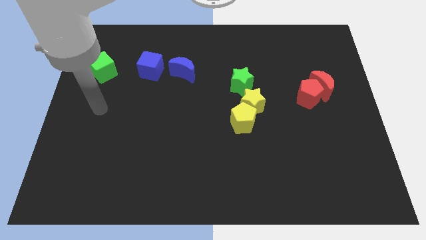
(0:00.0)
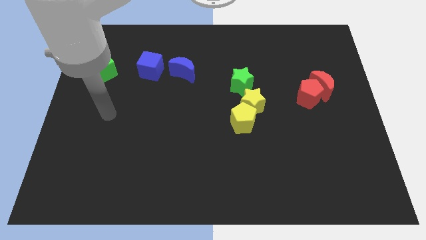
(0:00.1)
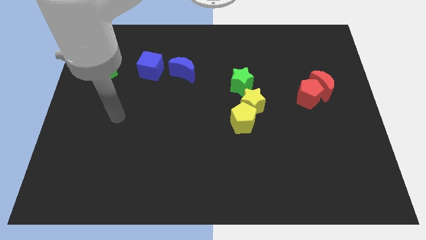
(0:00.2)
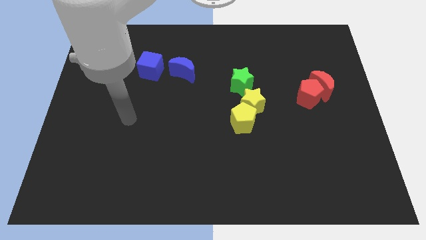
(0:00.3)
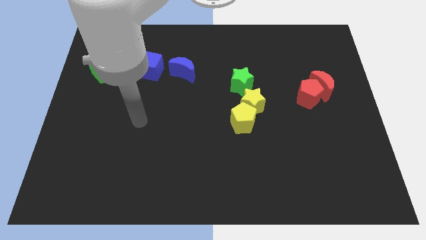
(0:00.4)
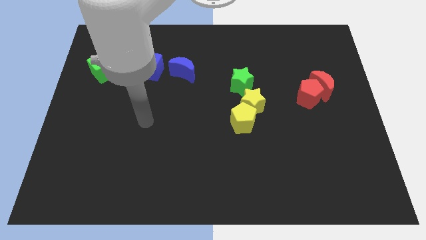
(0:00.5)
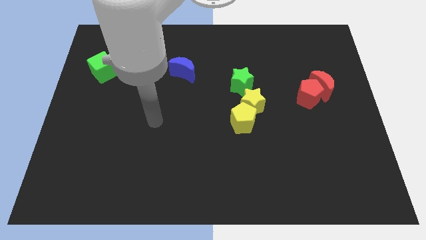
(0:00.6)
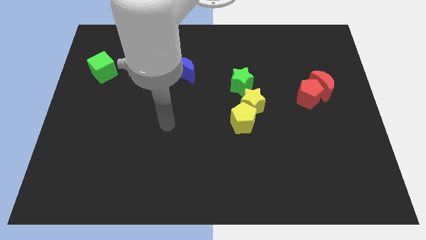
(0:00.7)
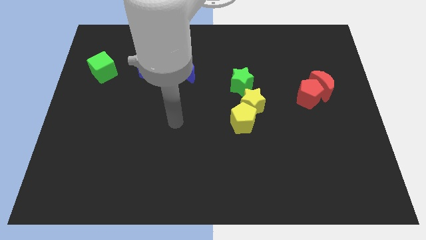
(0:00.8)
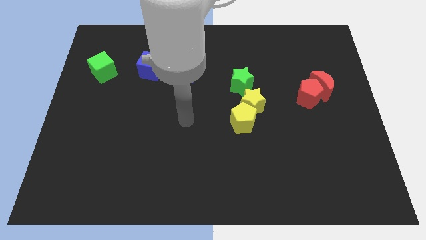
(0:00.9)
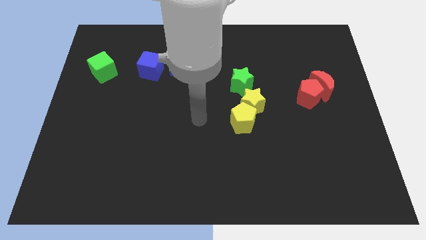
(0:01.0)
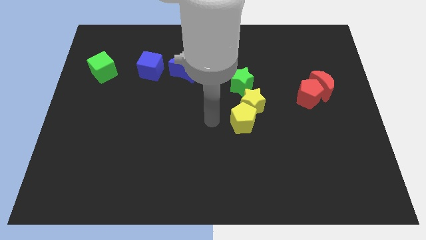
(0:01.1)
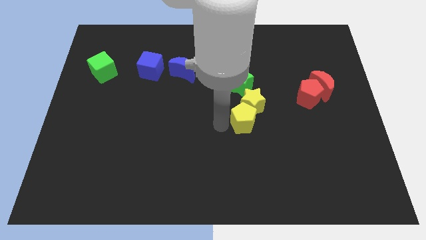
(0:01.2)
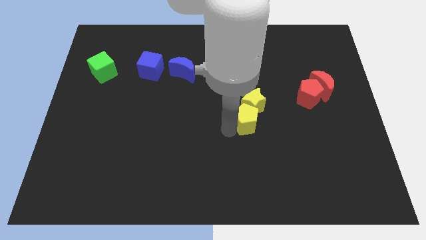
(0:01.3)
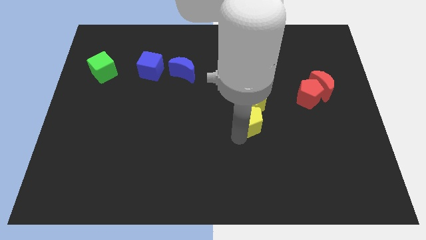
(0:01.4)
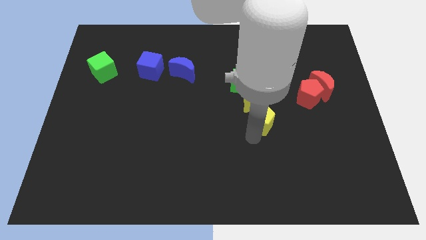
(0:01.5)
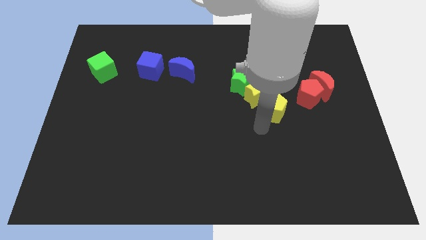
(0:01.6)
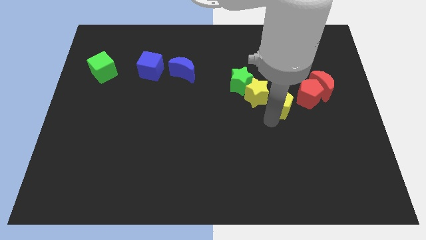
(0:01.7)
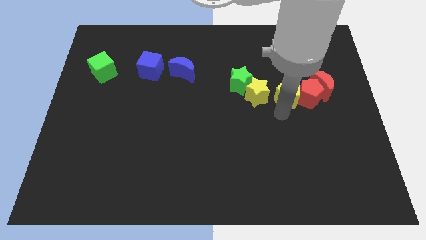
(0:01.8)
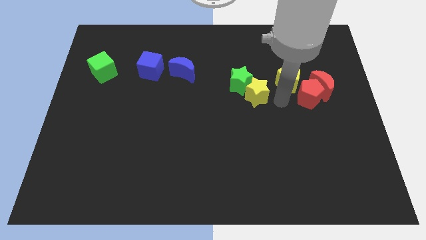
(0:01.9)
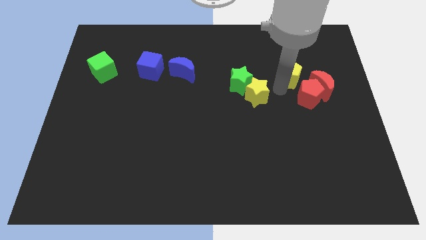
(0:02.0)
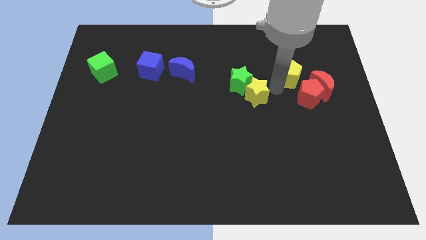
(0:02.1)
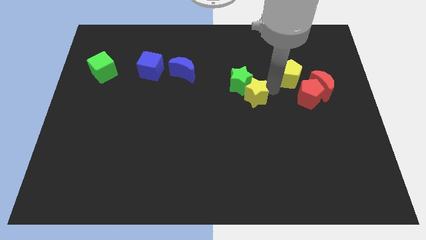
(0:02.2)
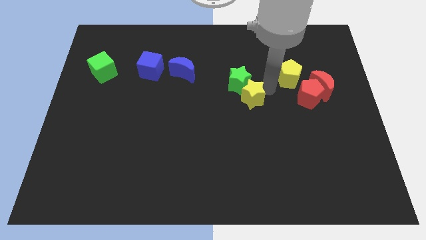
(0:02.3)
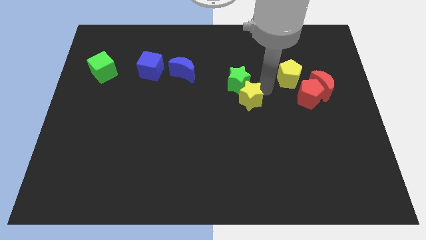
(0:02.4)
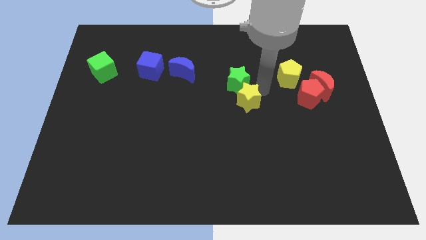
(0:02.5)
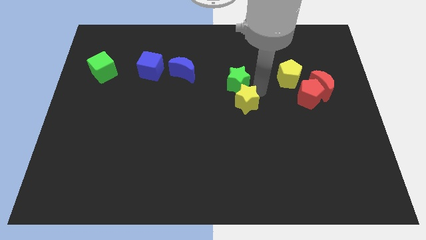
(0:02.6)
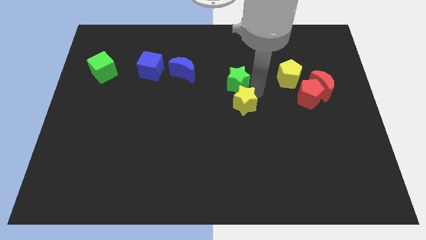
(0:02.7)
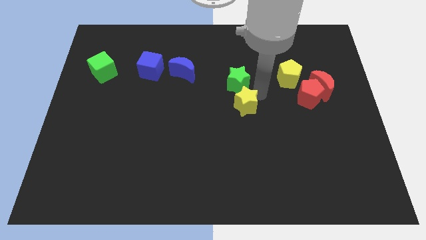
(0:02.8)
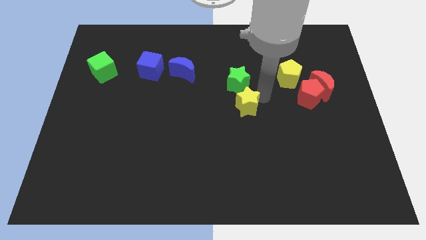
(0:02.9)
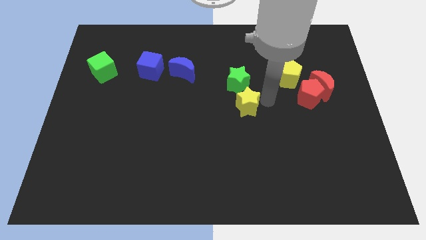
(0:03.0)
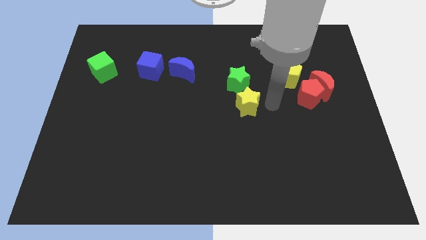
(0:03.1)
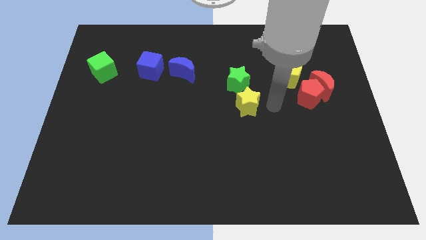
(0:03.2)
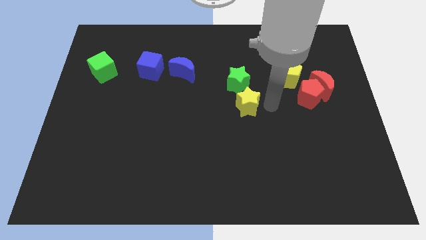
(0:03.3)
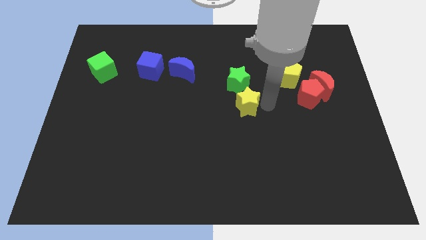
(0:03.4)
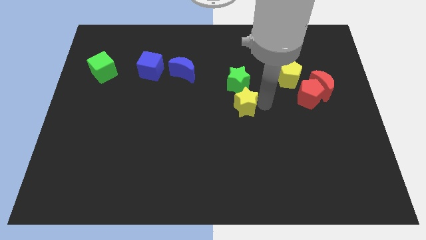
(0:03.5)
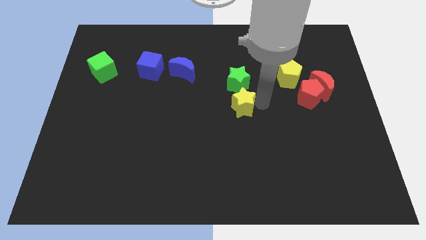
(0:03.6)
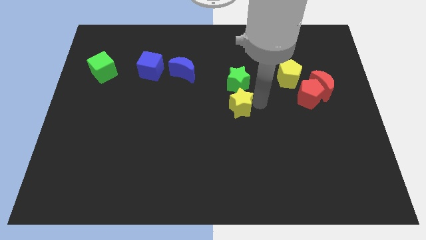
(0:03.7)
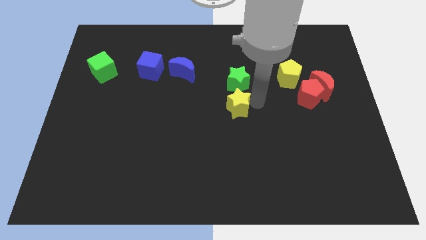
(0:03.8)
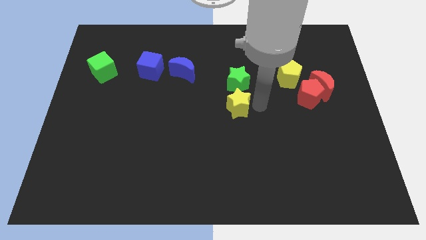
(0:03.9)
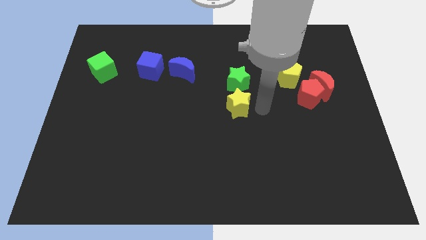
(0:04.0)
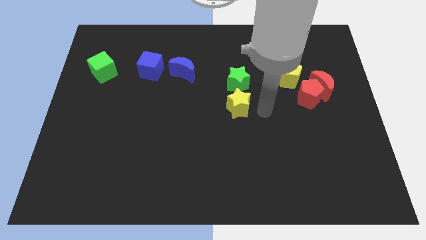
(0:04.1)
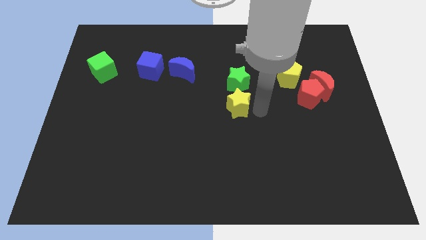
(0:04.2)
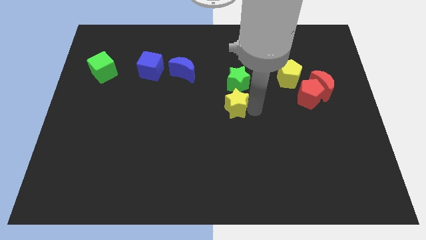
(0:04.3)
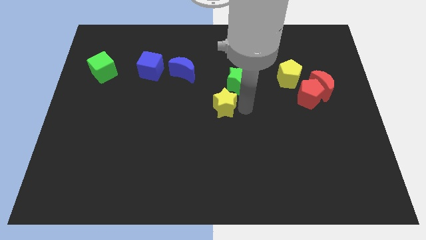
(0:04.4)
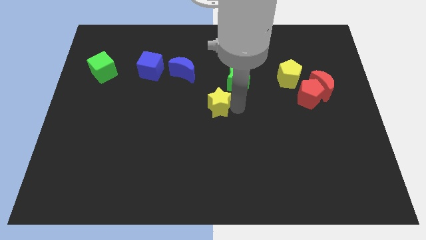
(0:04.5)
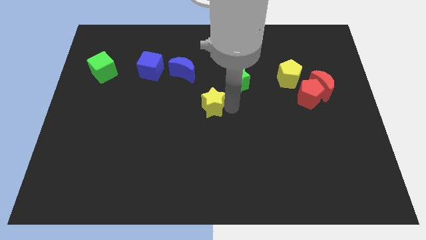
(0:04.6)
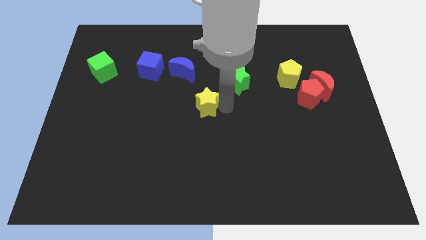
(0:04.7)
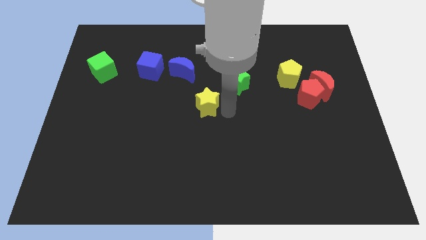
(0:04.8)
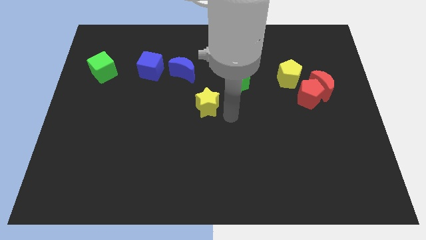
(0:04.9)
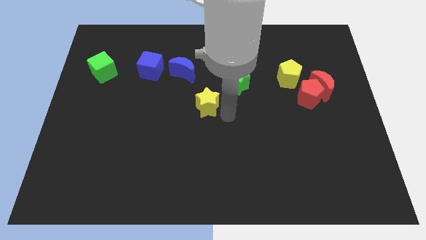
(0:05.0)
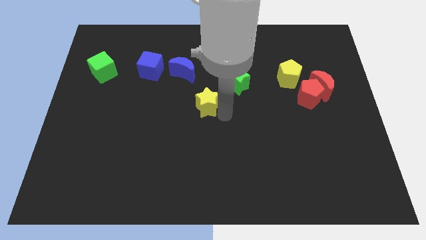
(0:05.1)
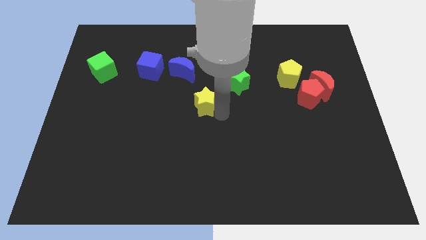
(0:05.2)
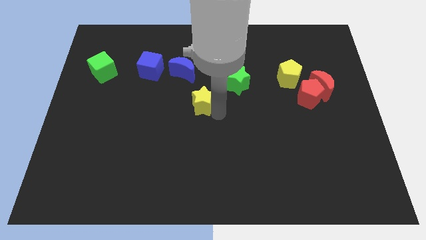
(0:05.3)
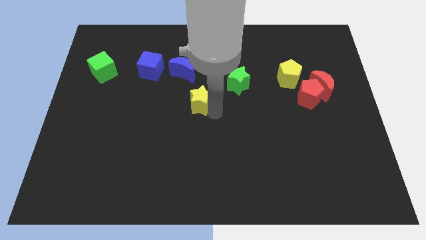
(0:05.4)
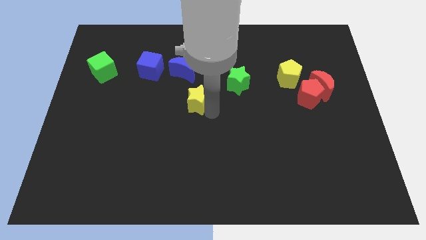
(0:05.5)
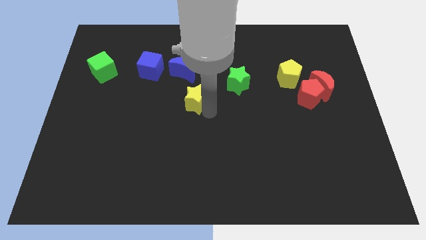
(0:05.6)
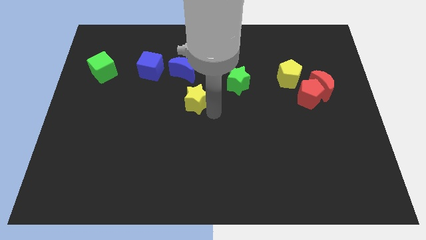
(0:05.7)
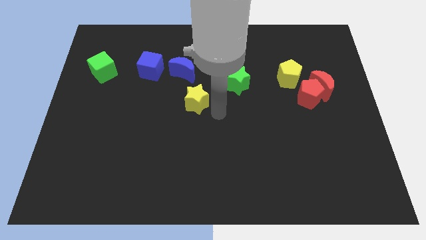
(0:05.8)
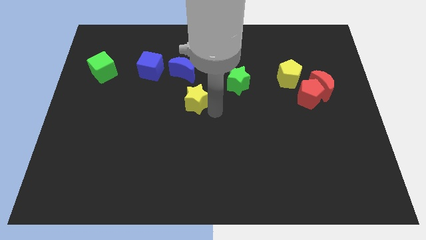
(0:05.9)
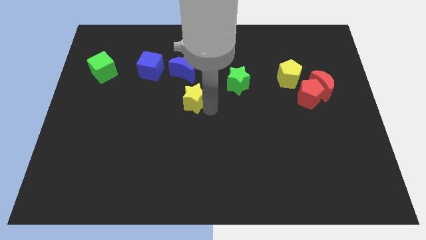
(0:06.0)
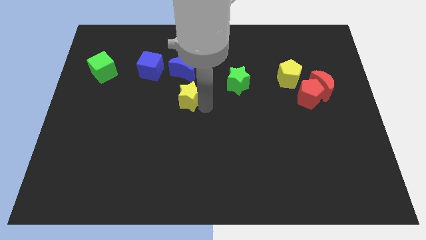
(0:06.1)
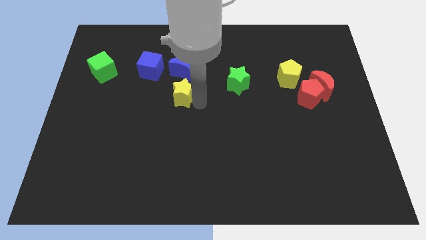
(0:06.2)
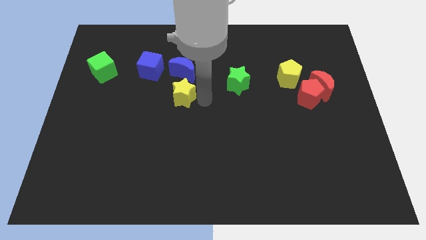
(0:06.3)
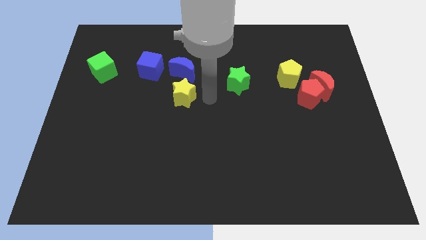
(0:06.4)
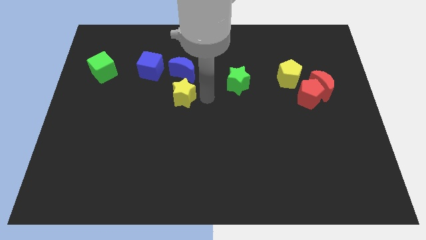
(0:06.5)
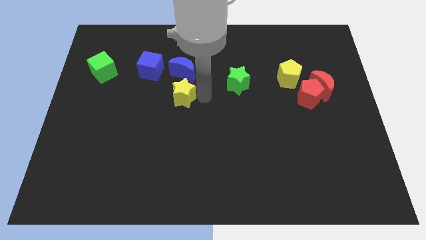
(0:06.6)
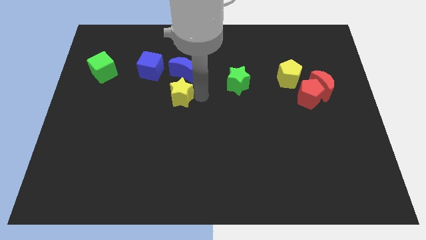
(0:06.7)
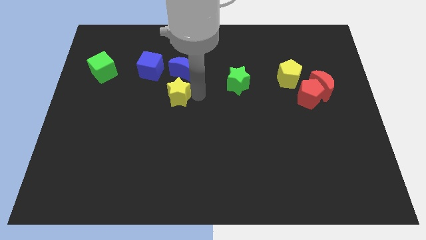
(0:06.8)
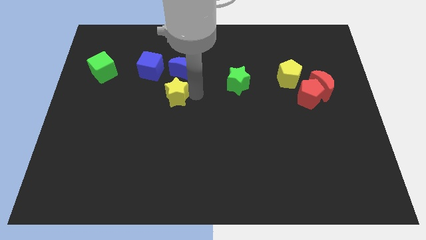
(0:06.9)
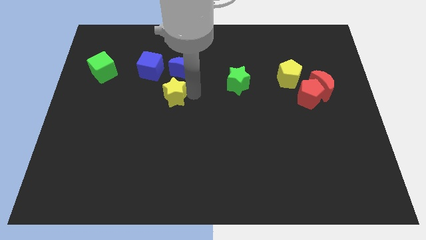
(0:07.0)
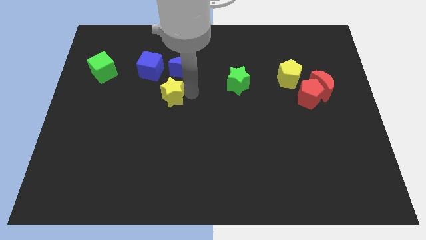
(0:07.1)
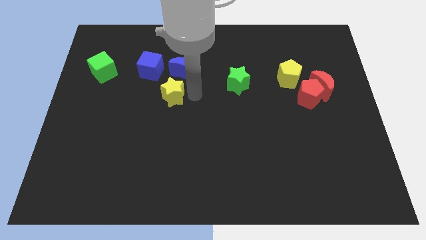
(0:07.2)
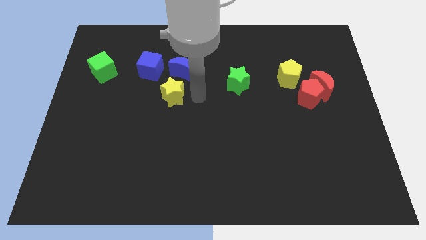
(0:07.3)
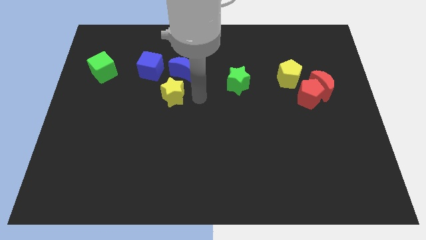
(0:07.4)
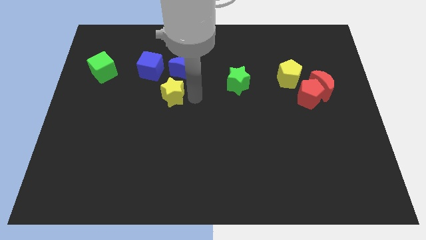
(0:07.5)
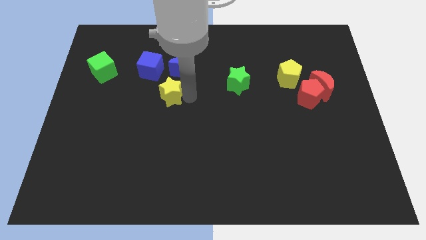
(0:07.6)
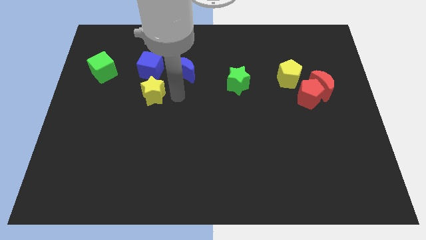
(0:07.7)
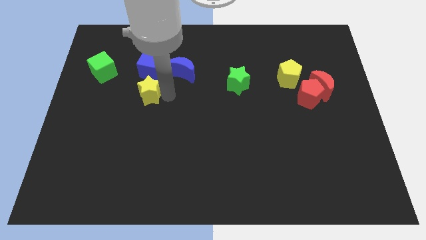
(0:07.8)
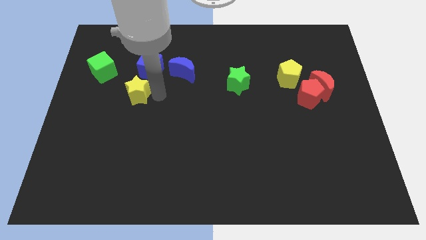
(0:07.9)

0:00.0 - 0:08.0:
put the yellow star to the bottom right side of the green cube
